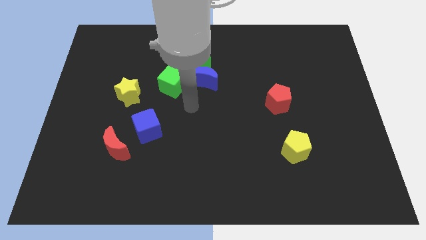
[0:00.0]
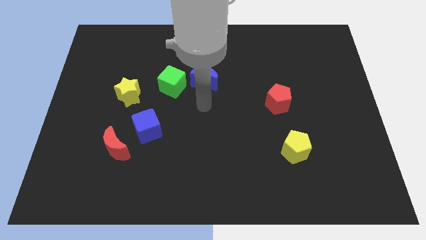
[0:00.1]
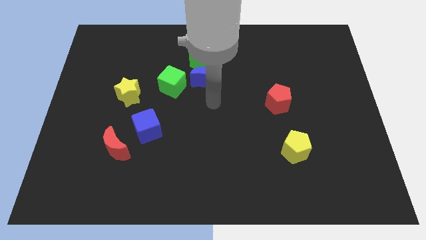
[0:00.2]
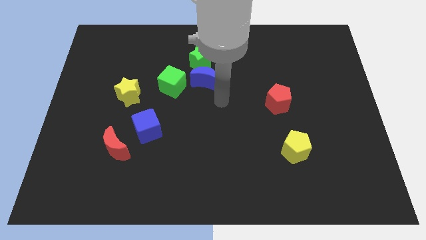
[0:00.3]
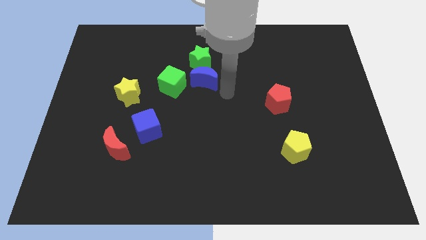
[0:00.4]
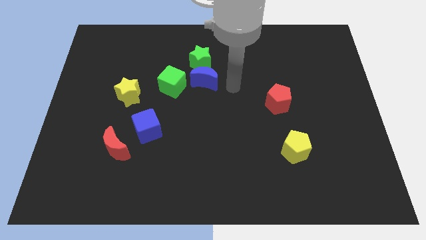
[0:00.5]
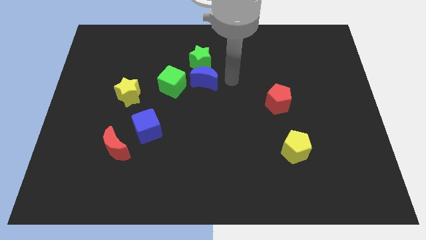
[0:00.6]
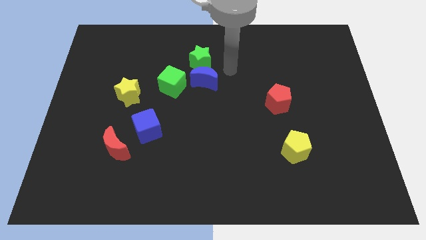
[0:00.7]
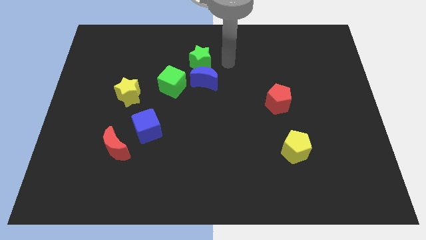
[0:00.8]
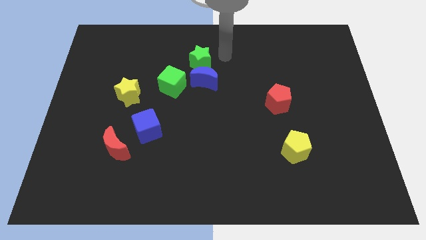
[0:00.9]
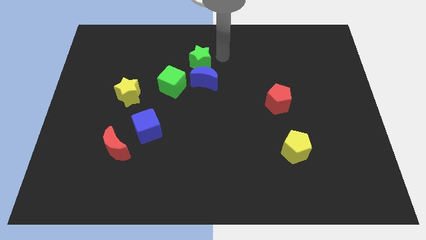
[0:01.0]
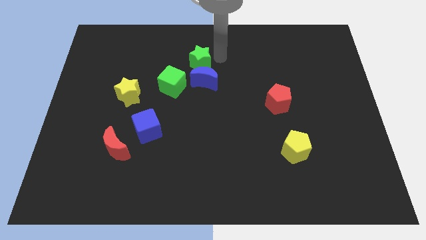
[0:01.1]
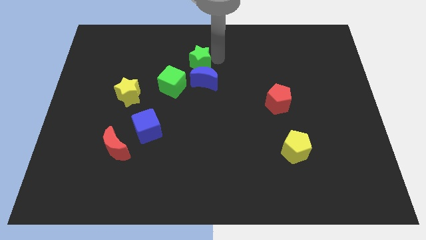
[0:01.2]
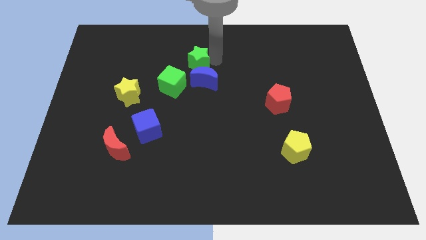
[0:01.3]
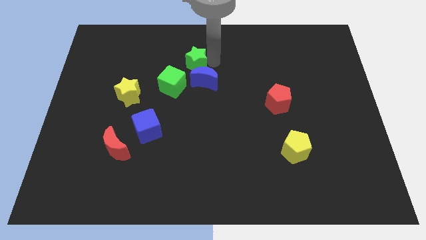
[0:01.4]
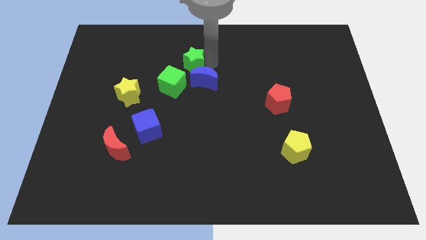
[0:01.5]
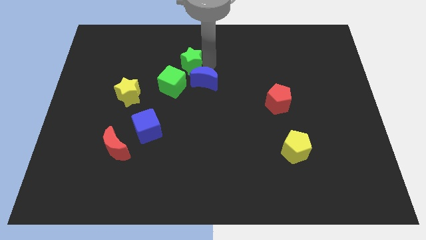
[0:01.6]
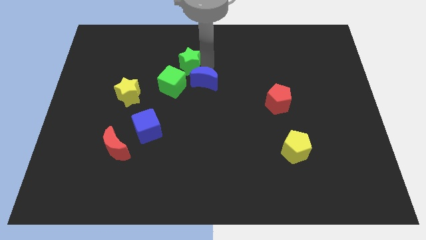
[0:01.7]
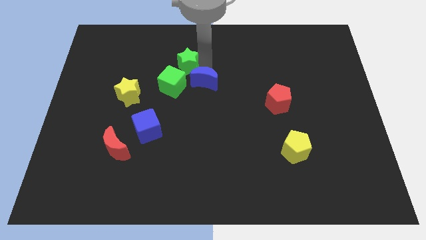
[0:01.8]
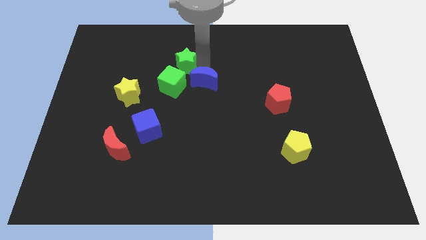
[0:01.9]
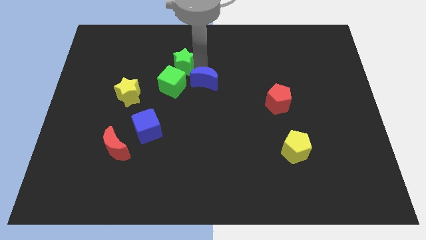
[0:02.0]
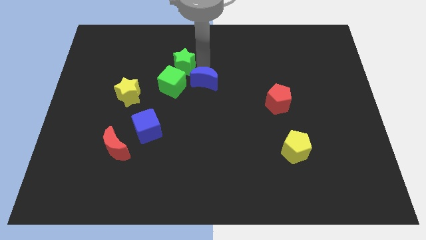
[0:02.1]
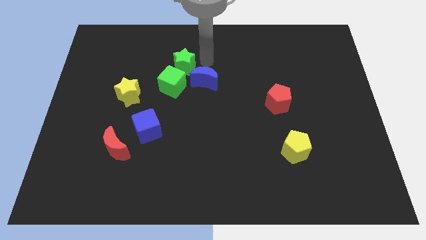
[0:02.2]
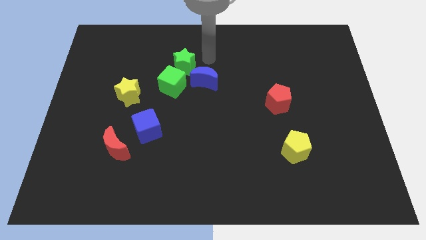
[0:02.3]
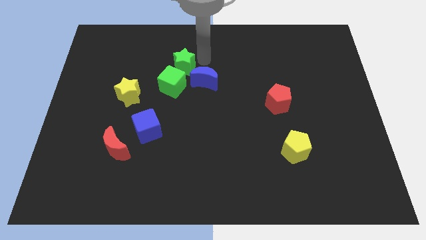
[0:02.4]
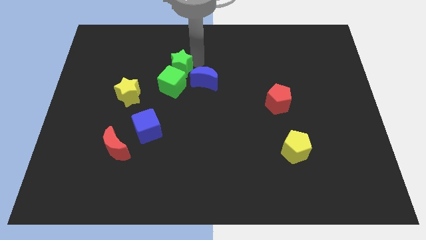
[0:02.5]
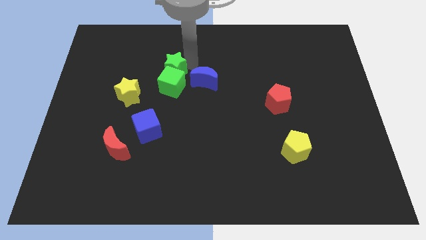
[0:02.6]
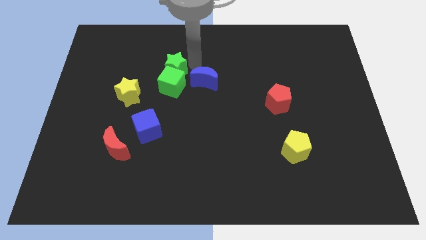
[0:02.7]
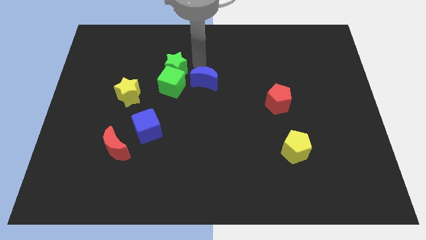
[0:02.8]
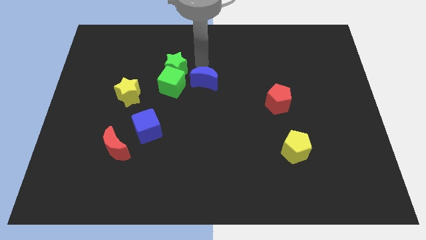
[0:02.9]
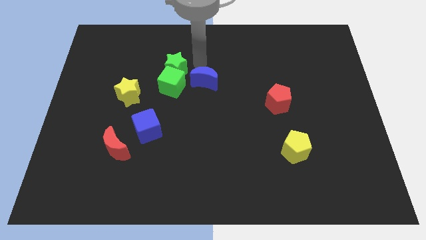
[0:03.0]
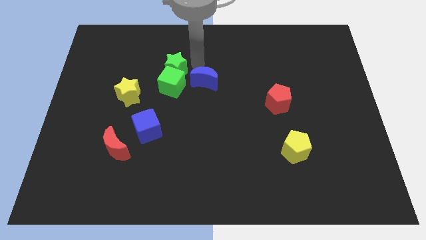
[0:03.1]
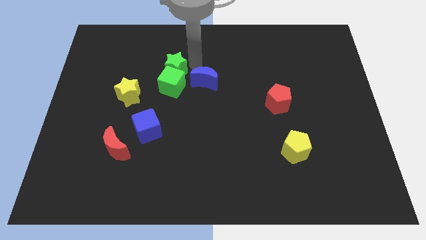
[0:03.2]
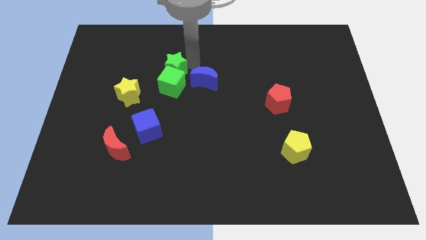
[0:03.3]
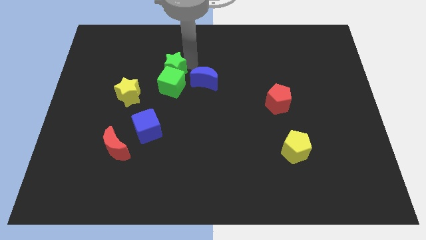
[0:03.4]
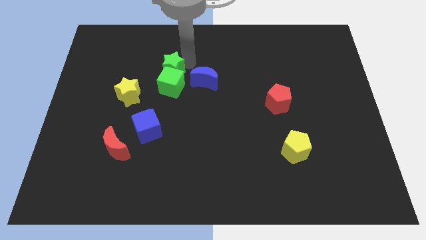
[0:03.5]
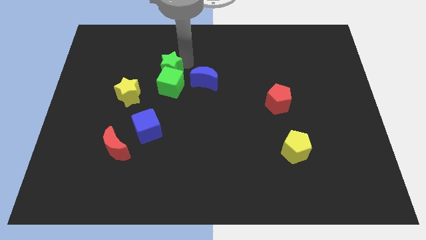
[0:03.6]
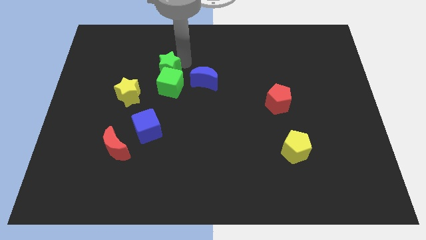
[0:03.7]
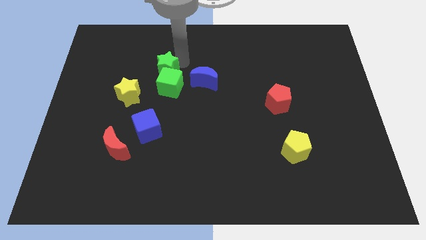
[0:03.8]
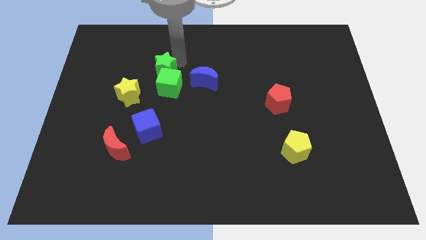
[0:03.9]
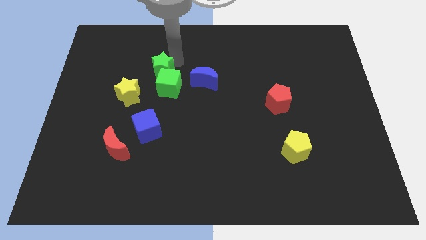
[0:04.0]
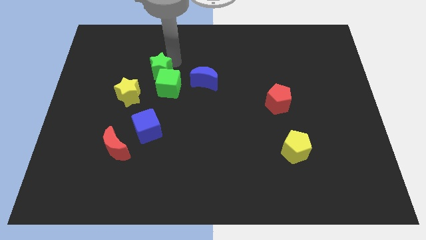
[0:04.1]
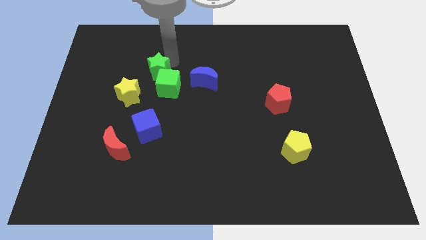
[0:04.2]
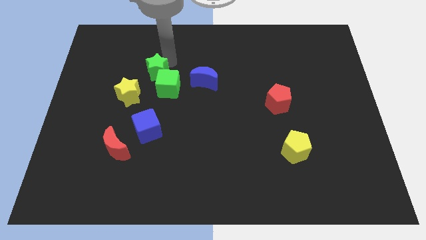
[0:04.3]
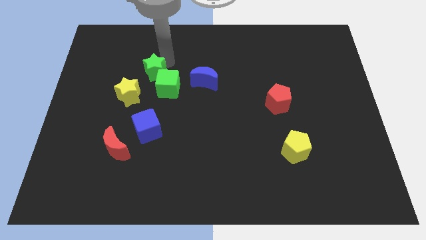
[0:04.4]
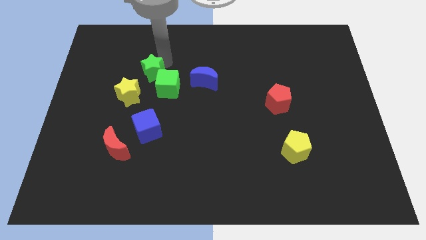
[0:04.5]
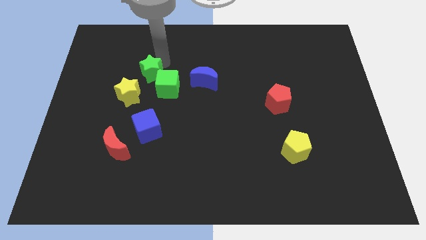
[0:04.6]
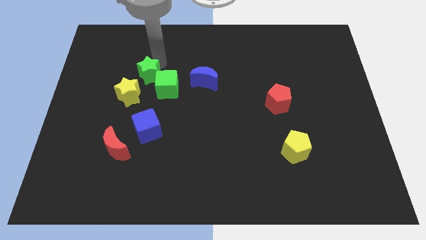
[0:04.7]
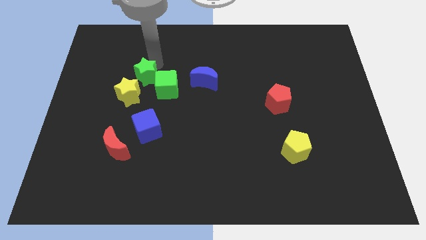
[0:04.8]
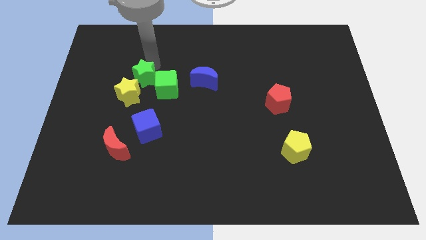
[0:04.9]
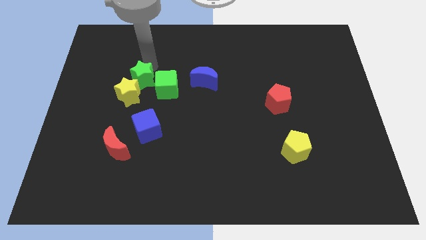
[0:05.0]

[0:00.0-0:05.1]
push the green star next to the yellow star

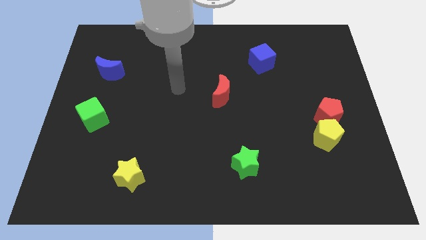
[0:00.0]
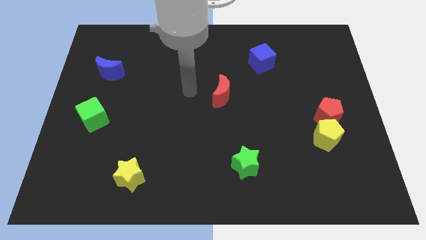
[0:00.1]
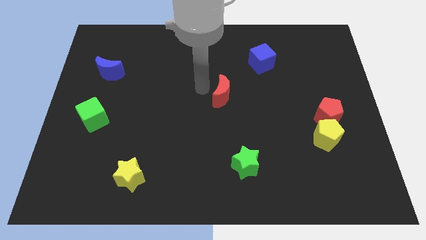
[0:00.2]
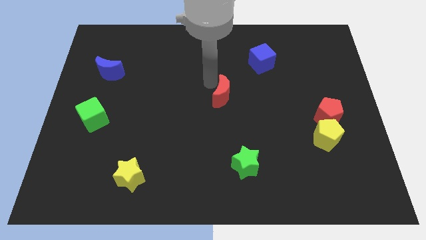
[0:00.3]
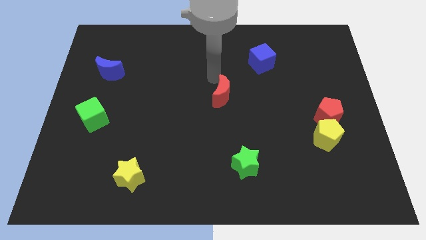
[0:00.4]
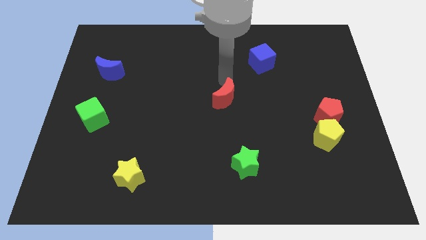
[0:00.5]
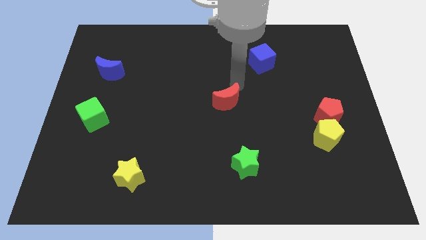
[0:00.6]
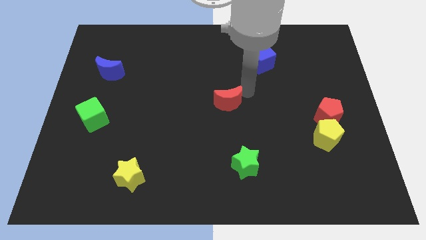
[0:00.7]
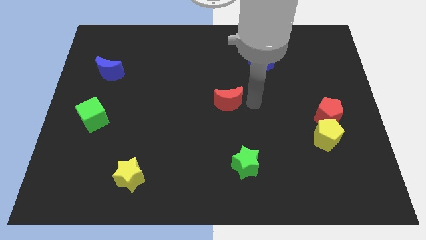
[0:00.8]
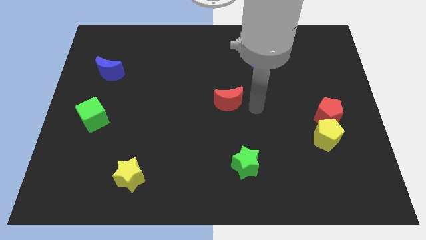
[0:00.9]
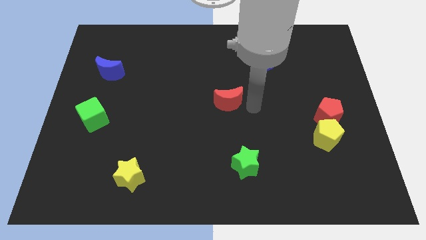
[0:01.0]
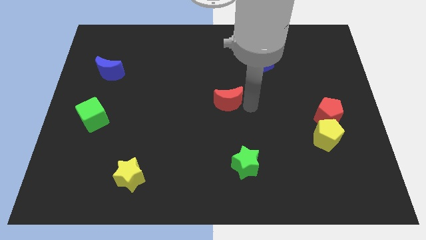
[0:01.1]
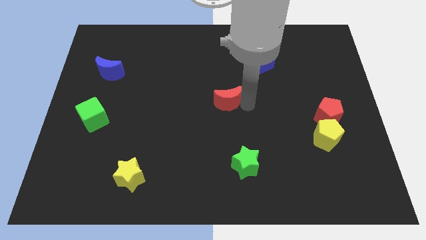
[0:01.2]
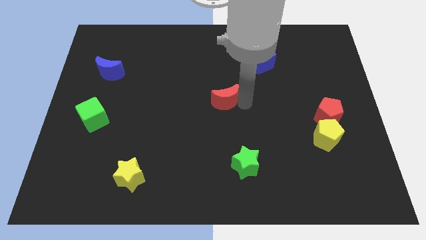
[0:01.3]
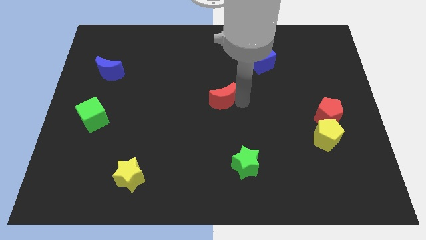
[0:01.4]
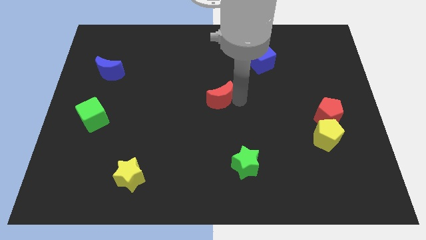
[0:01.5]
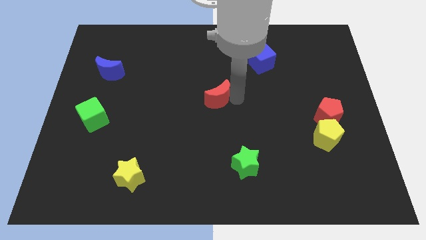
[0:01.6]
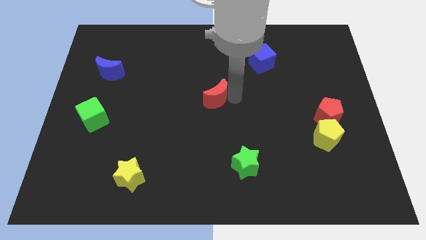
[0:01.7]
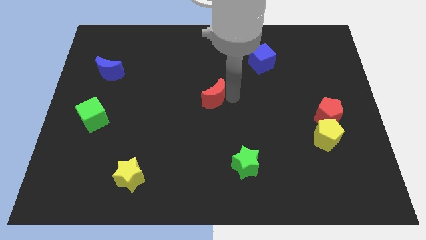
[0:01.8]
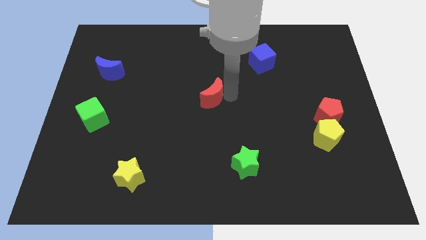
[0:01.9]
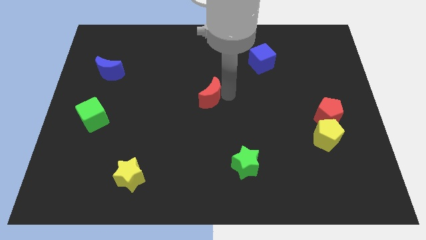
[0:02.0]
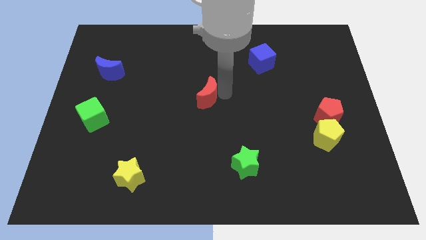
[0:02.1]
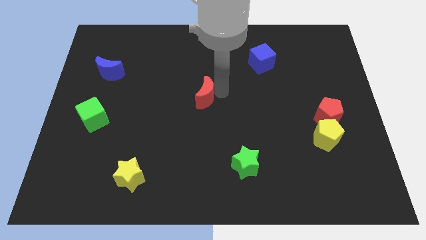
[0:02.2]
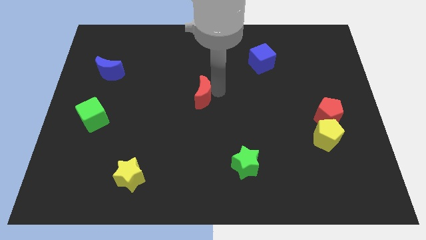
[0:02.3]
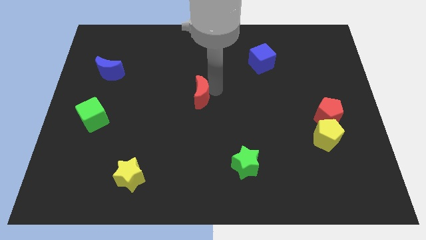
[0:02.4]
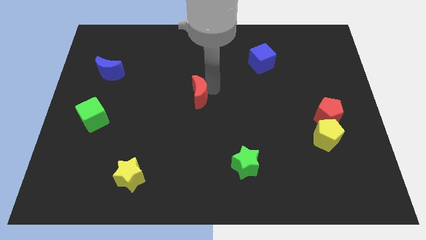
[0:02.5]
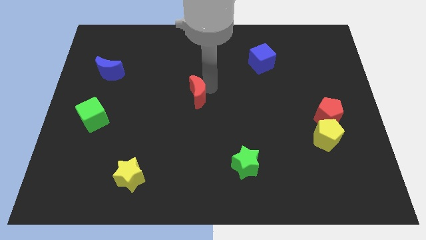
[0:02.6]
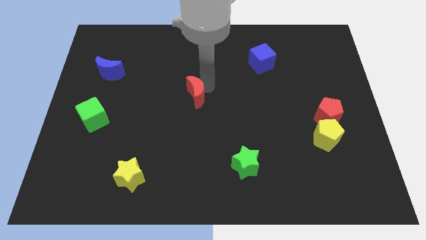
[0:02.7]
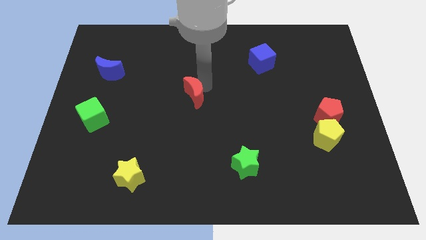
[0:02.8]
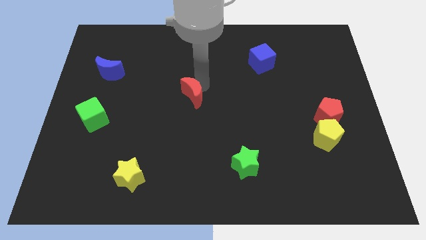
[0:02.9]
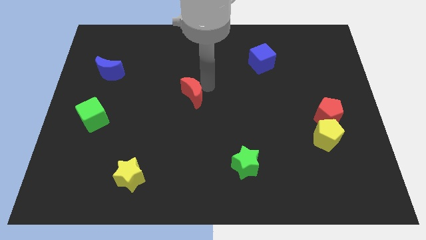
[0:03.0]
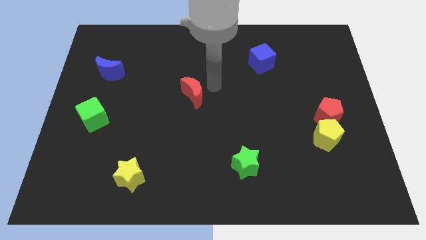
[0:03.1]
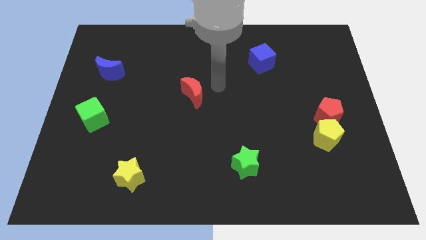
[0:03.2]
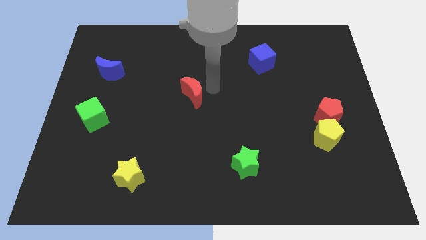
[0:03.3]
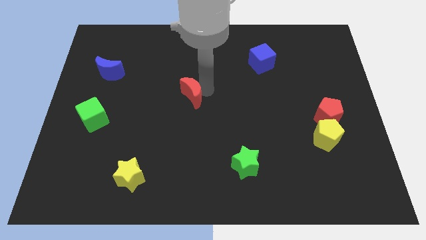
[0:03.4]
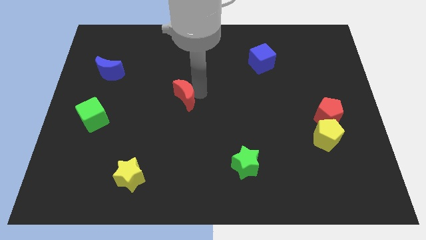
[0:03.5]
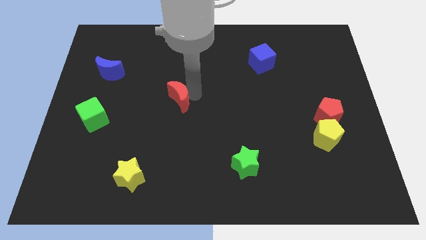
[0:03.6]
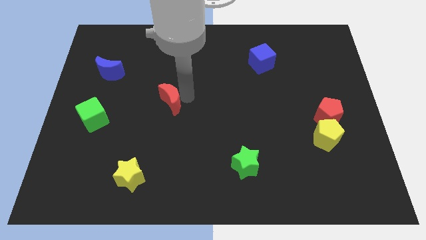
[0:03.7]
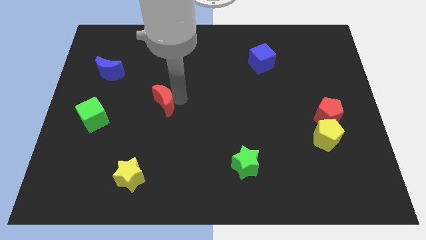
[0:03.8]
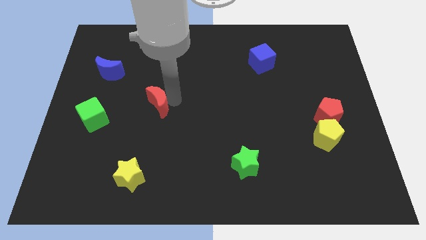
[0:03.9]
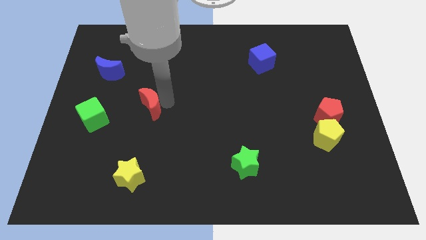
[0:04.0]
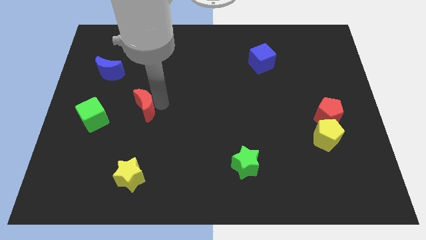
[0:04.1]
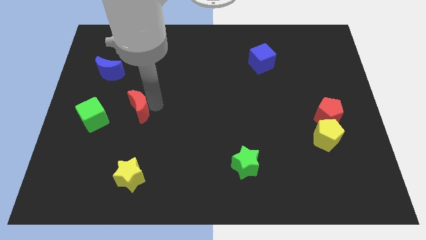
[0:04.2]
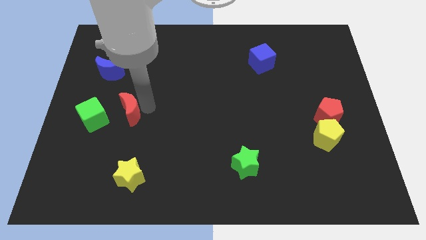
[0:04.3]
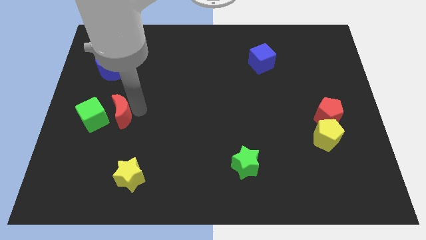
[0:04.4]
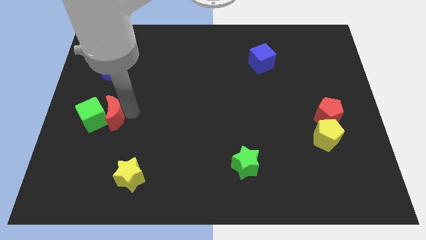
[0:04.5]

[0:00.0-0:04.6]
push the red moon close to the green cube
